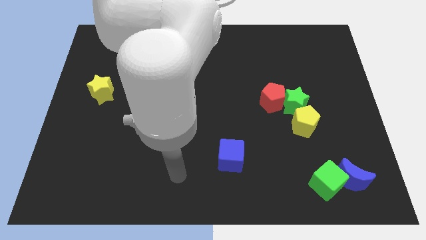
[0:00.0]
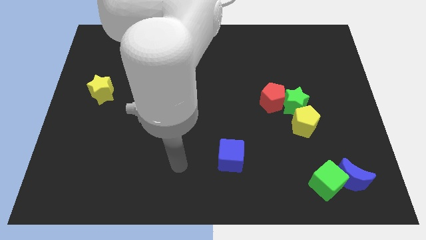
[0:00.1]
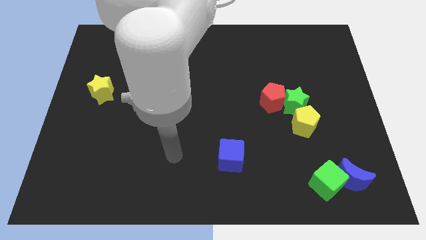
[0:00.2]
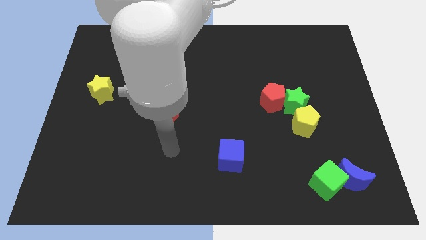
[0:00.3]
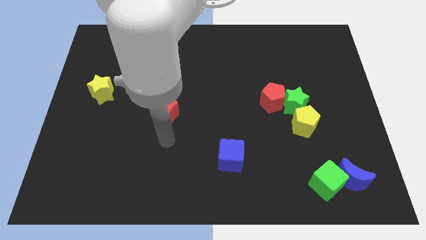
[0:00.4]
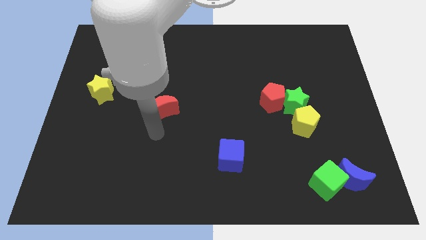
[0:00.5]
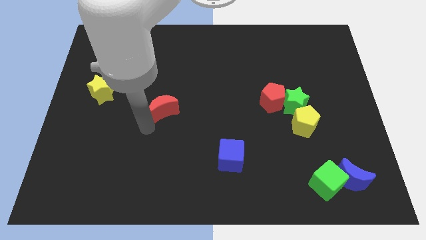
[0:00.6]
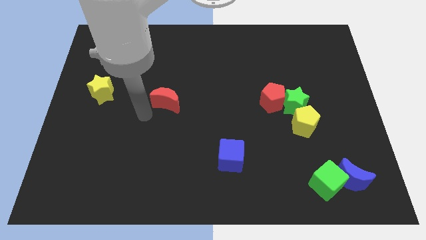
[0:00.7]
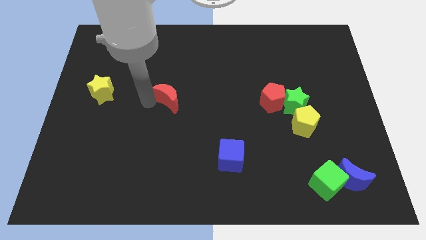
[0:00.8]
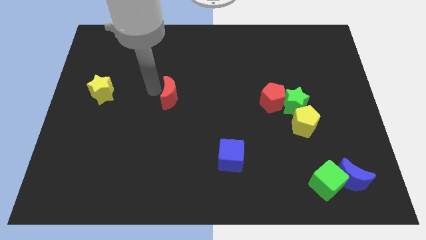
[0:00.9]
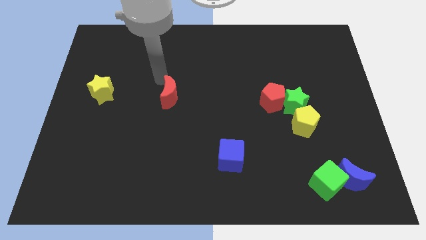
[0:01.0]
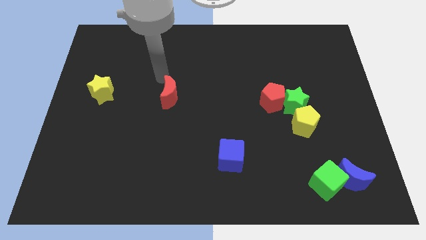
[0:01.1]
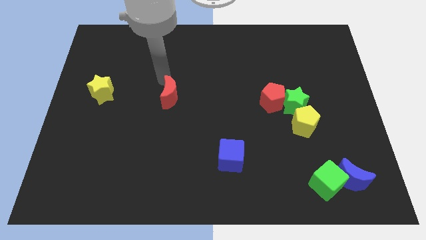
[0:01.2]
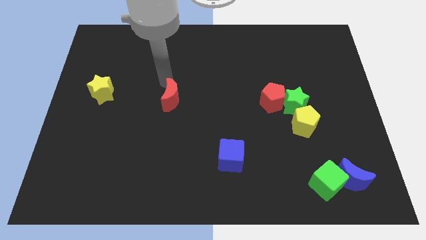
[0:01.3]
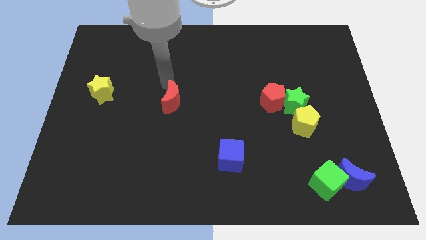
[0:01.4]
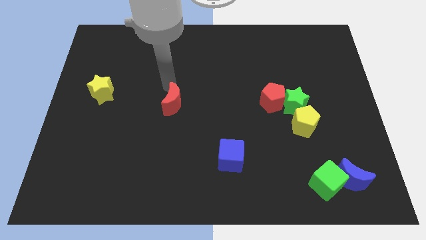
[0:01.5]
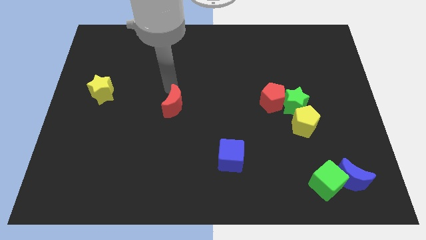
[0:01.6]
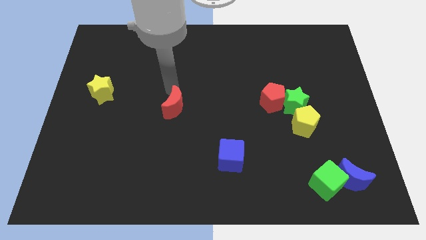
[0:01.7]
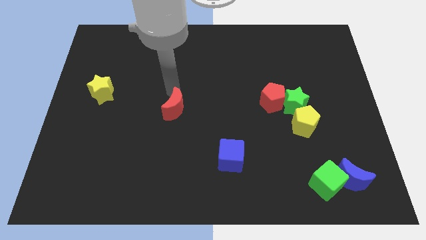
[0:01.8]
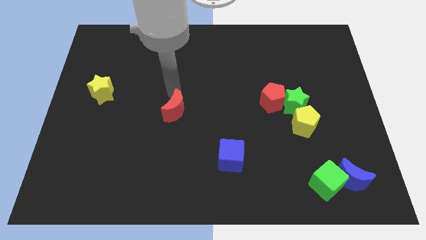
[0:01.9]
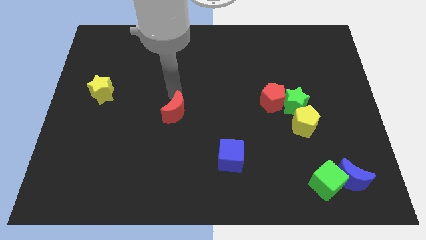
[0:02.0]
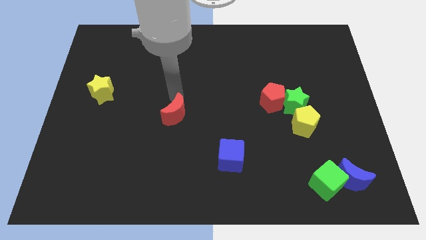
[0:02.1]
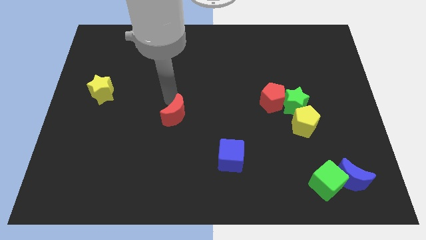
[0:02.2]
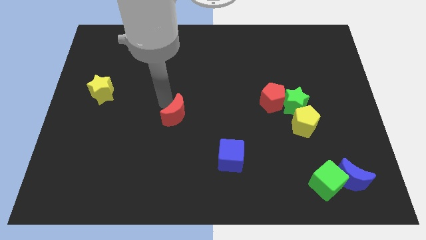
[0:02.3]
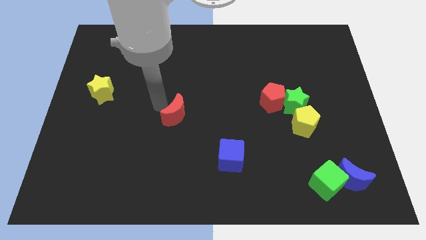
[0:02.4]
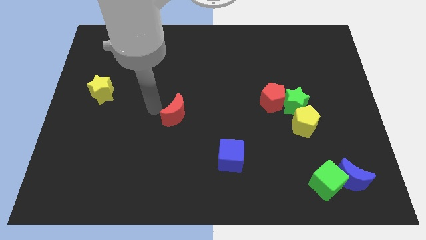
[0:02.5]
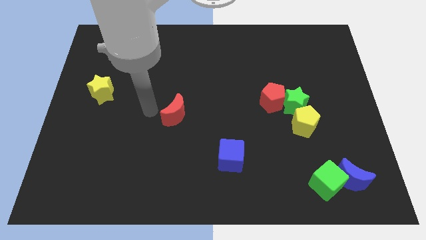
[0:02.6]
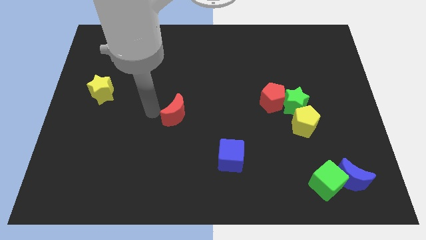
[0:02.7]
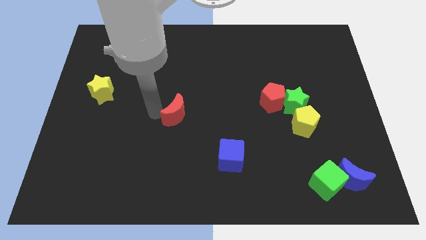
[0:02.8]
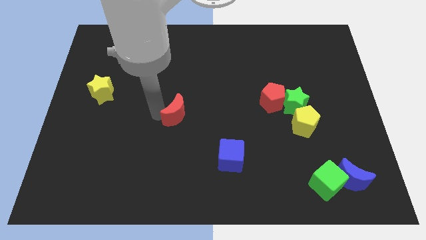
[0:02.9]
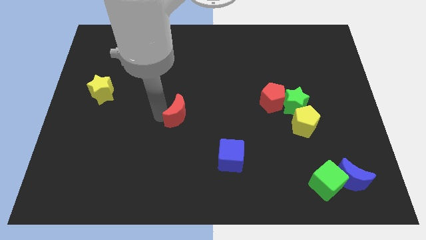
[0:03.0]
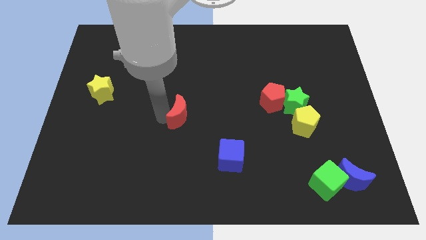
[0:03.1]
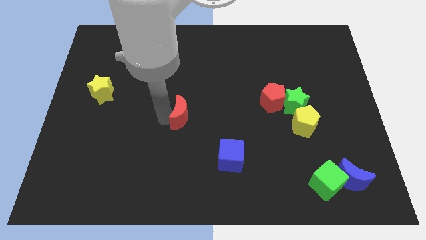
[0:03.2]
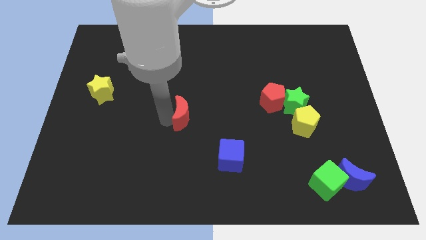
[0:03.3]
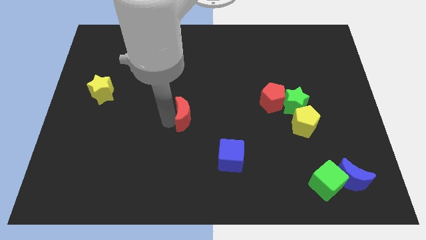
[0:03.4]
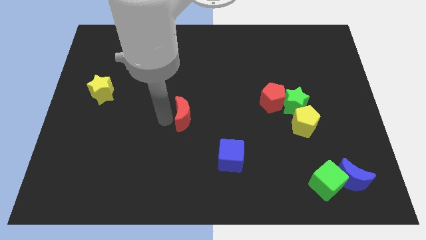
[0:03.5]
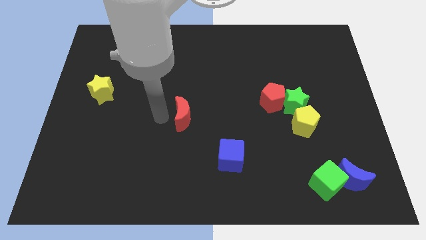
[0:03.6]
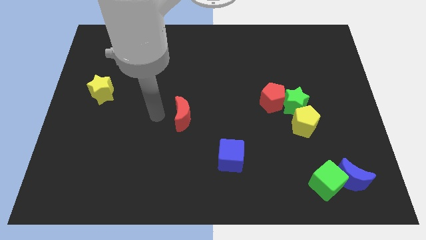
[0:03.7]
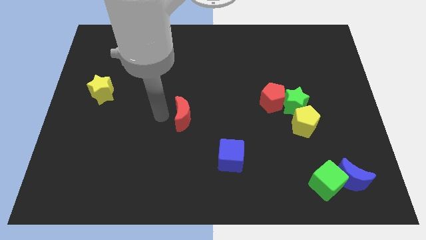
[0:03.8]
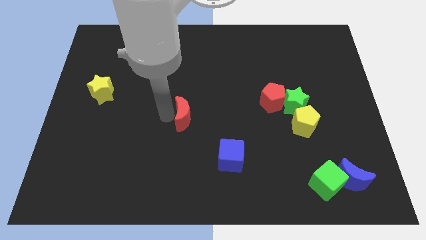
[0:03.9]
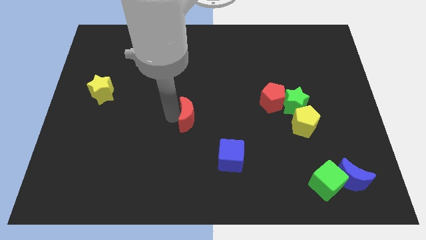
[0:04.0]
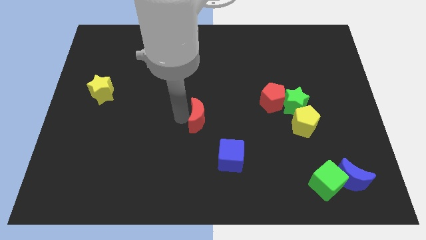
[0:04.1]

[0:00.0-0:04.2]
move the red moon slightly right

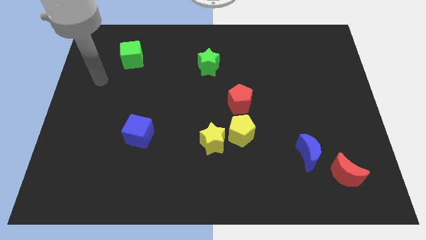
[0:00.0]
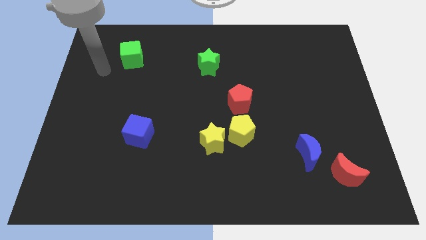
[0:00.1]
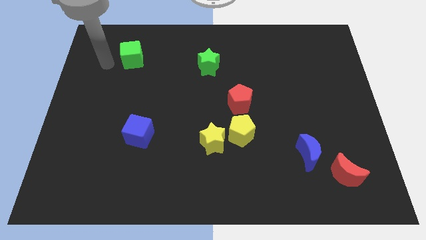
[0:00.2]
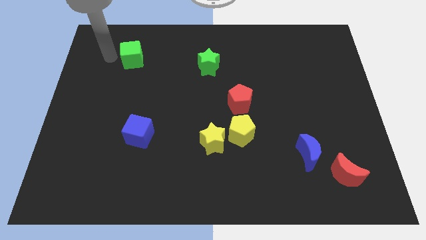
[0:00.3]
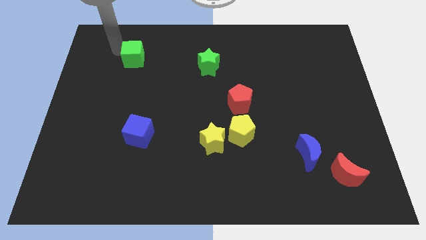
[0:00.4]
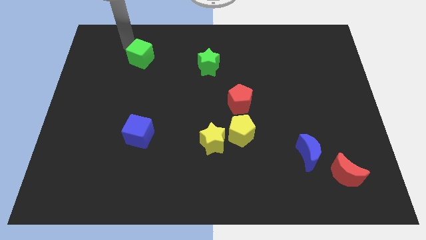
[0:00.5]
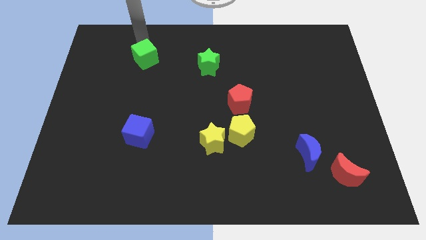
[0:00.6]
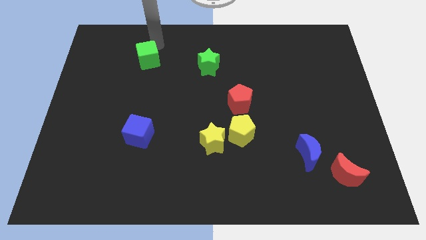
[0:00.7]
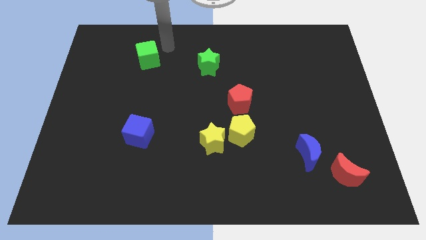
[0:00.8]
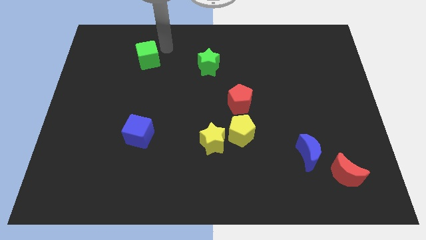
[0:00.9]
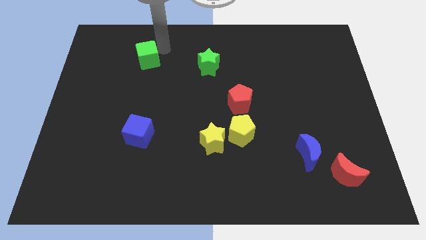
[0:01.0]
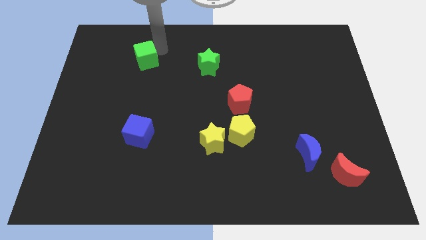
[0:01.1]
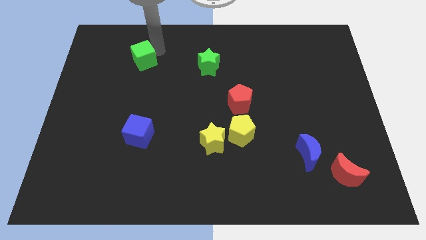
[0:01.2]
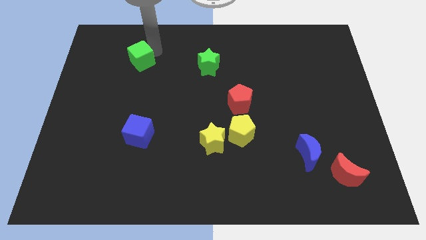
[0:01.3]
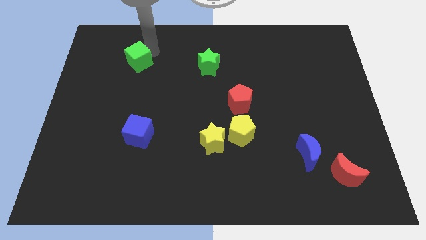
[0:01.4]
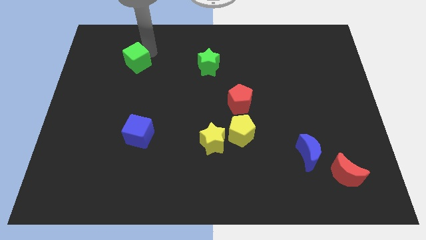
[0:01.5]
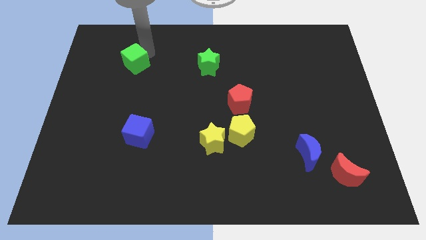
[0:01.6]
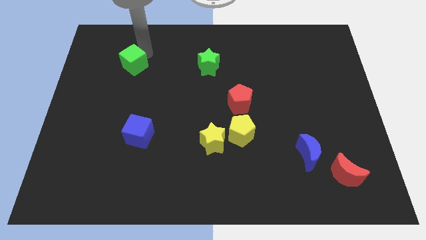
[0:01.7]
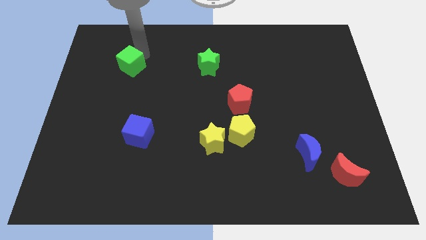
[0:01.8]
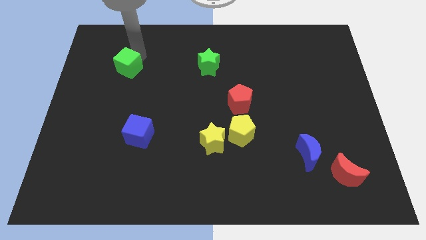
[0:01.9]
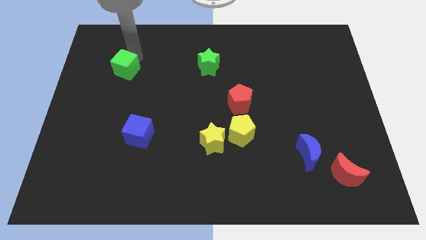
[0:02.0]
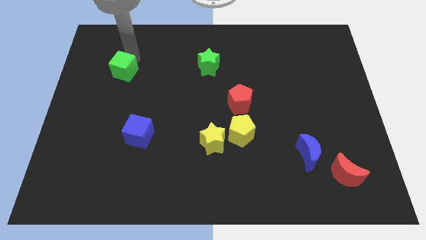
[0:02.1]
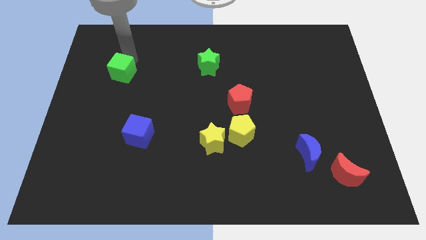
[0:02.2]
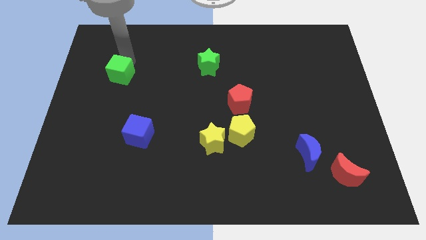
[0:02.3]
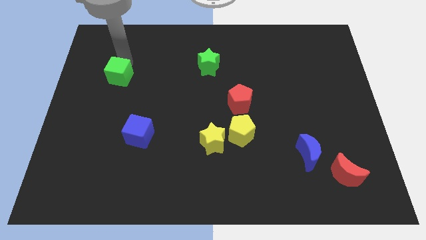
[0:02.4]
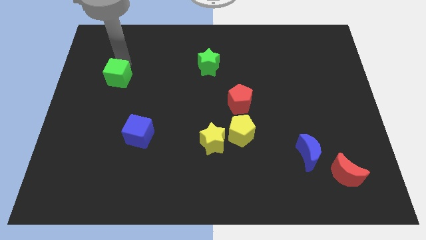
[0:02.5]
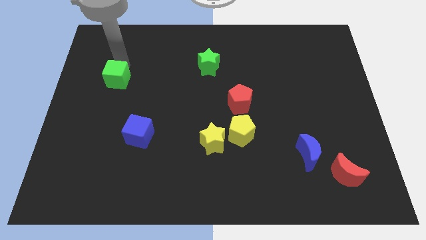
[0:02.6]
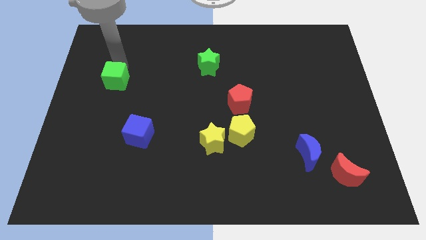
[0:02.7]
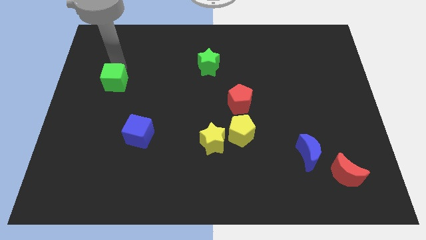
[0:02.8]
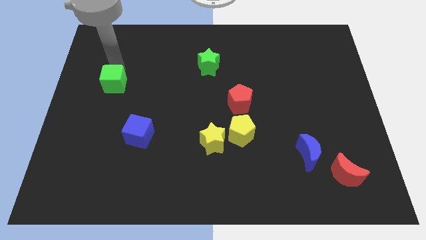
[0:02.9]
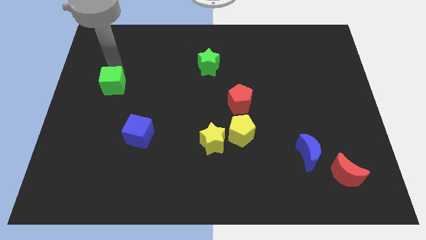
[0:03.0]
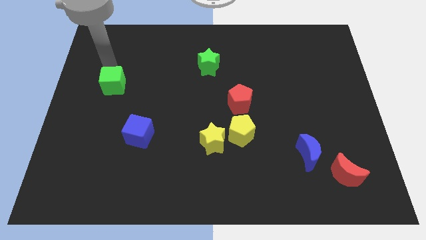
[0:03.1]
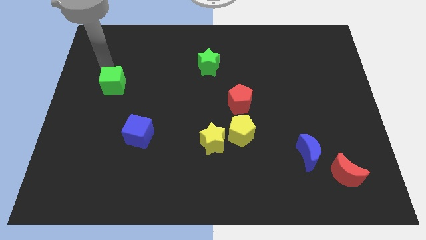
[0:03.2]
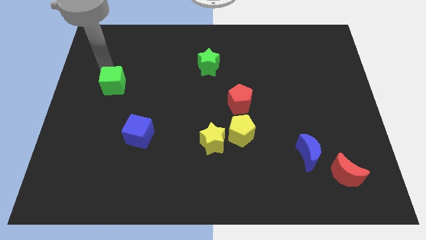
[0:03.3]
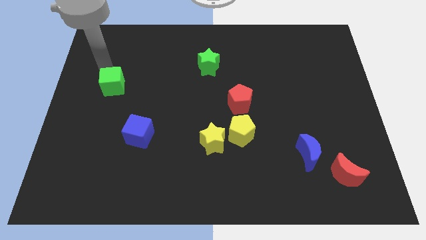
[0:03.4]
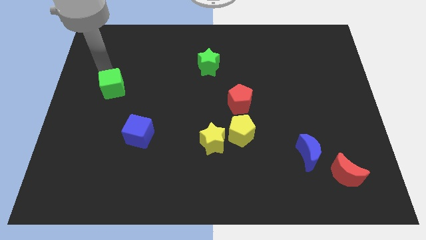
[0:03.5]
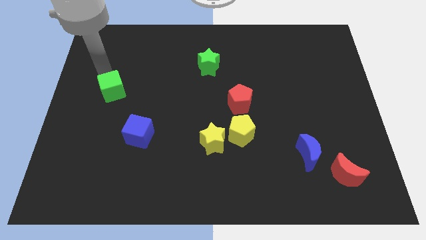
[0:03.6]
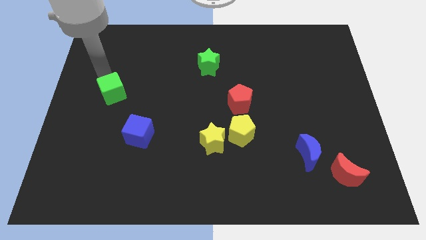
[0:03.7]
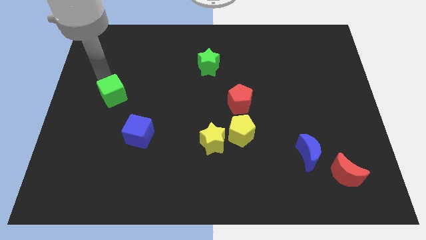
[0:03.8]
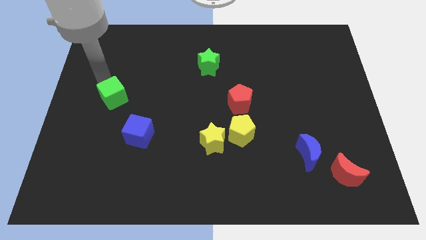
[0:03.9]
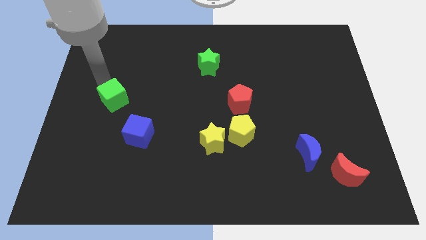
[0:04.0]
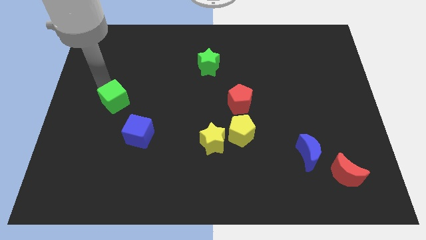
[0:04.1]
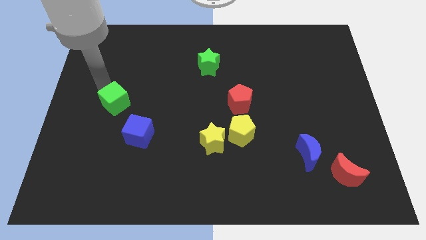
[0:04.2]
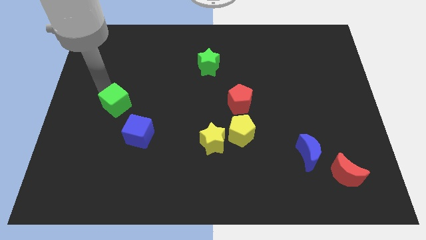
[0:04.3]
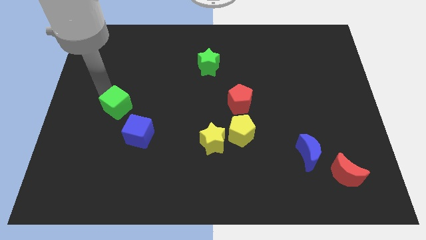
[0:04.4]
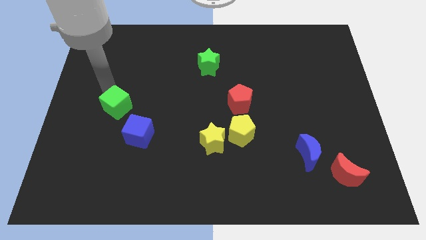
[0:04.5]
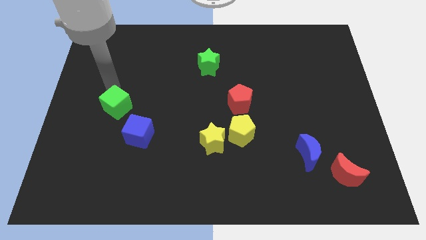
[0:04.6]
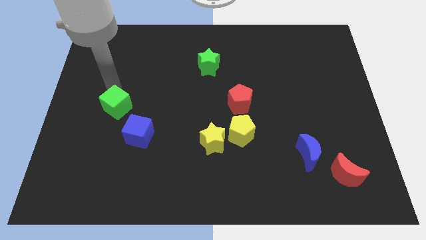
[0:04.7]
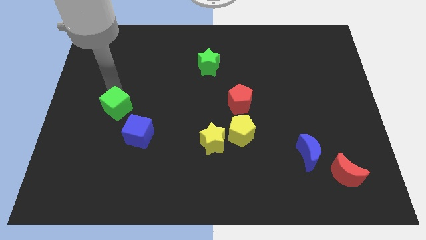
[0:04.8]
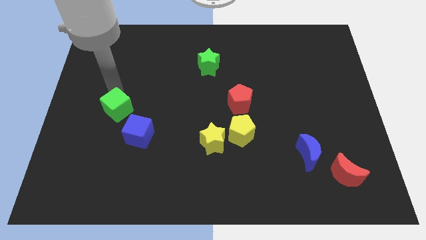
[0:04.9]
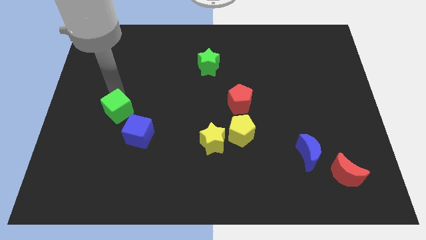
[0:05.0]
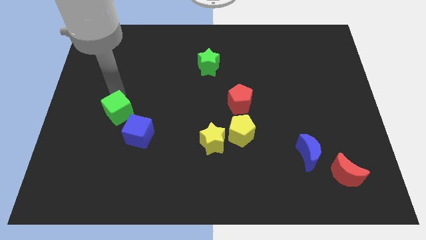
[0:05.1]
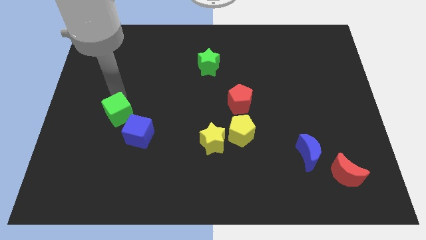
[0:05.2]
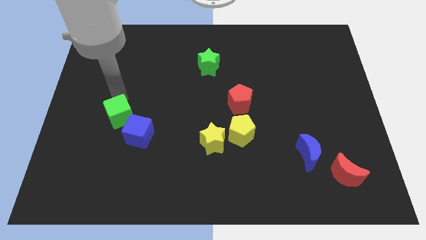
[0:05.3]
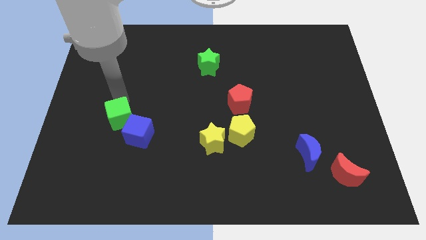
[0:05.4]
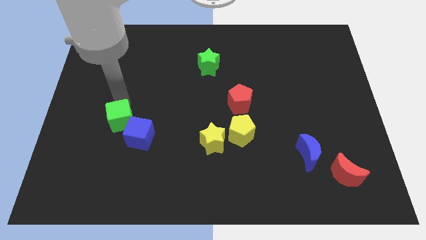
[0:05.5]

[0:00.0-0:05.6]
slide the green cube downwards
